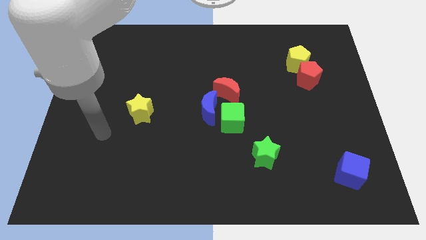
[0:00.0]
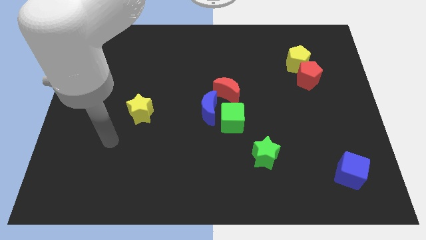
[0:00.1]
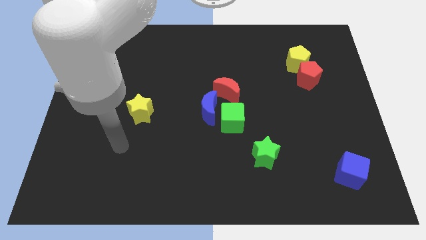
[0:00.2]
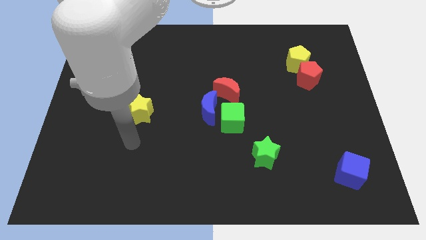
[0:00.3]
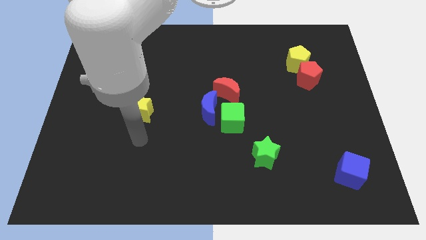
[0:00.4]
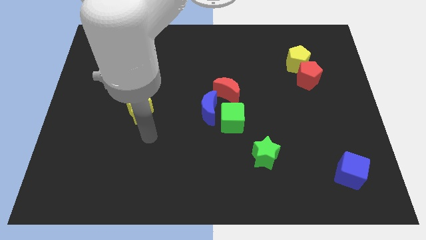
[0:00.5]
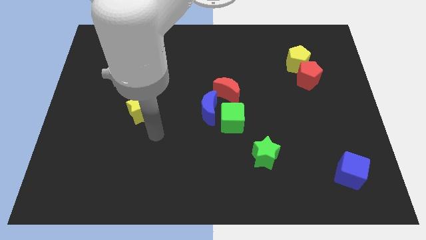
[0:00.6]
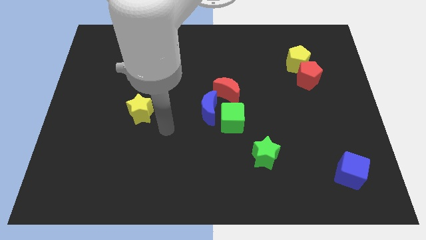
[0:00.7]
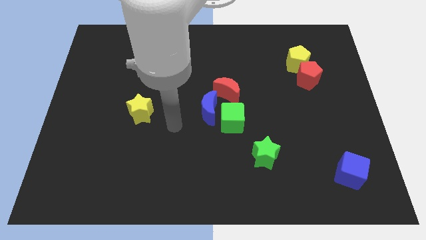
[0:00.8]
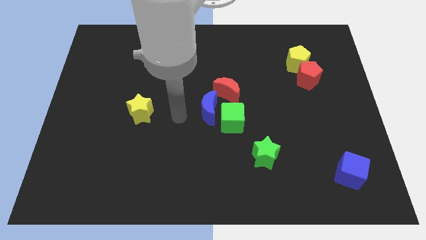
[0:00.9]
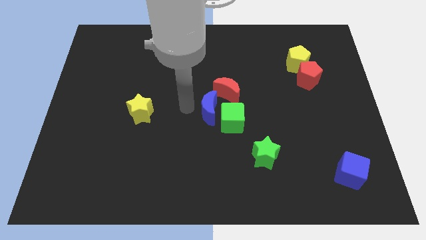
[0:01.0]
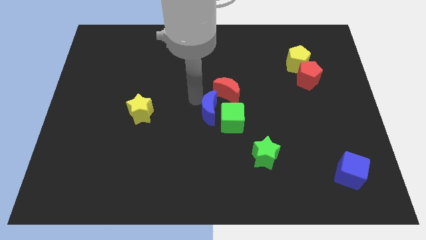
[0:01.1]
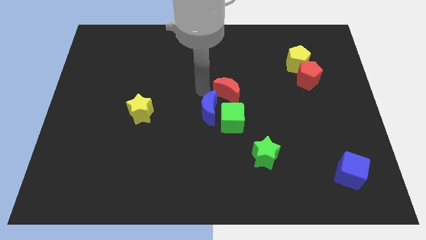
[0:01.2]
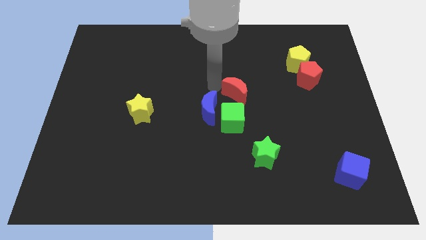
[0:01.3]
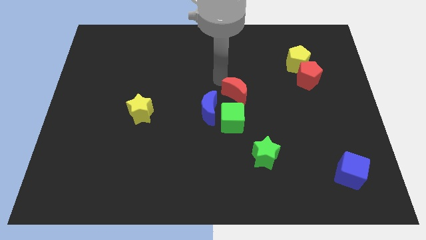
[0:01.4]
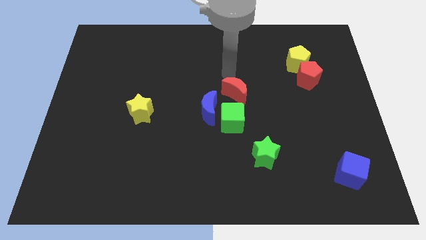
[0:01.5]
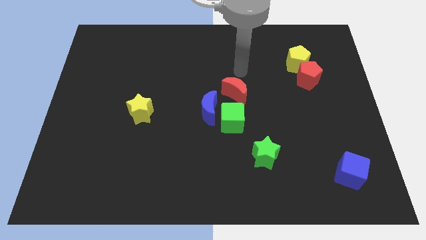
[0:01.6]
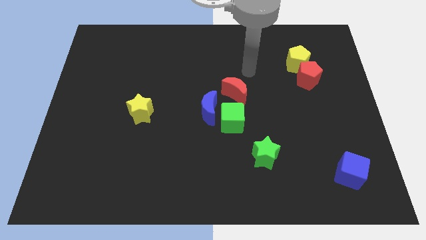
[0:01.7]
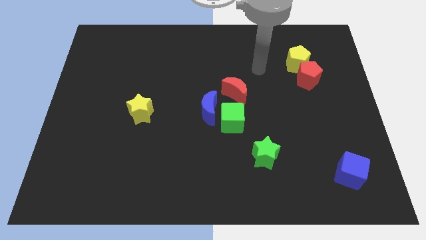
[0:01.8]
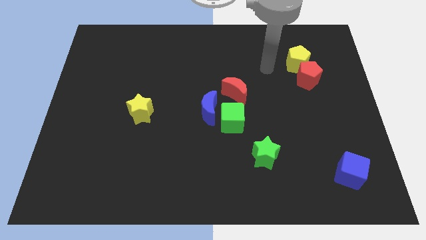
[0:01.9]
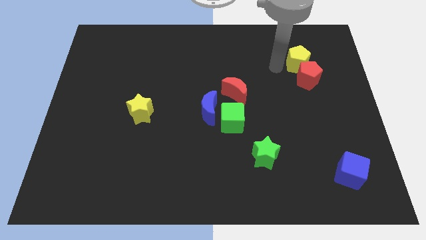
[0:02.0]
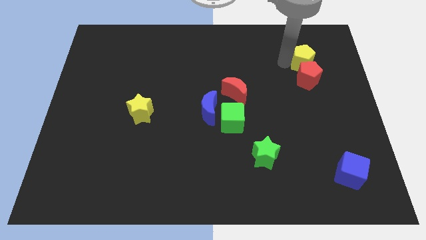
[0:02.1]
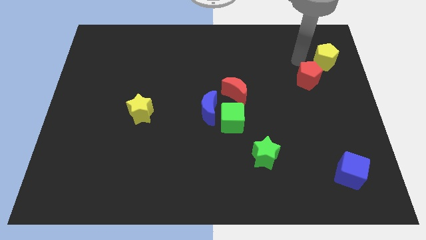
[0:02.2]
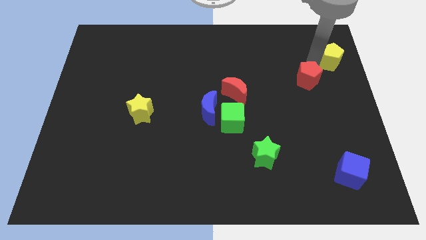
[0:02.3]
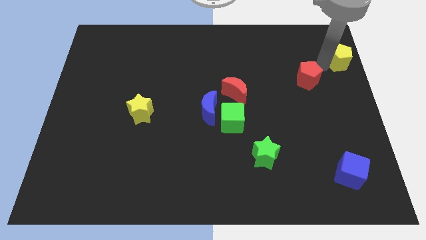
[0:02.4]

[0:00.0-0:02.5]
move the red pentagon away from the yellow pentagon

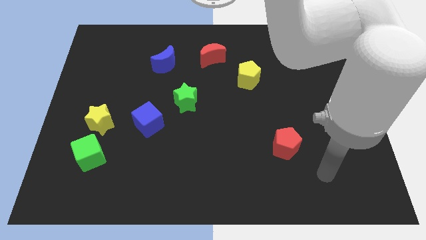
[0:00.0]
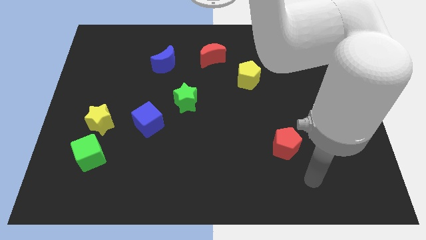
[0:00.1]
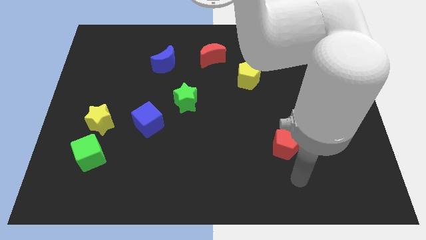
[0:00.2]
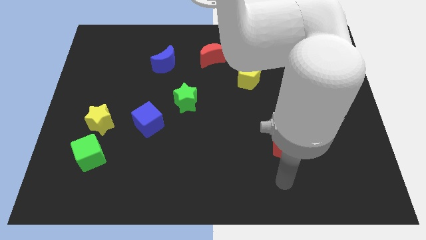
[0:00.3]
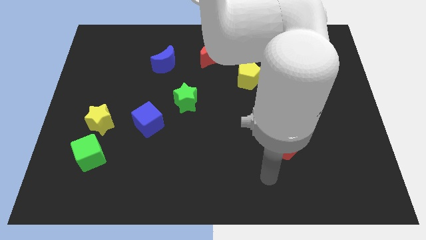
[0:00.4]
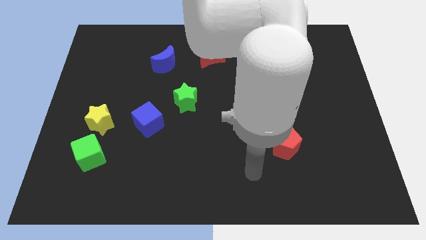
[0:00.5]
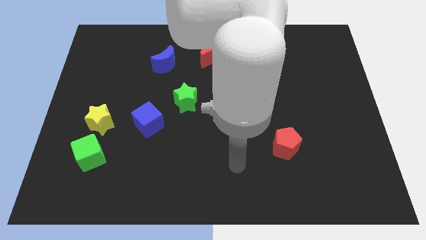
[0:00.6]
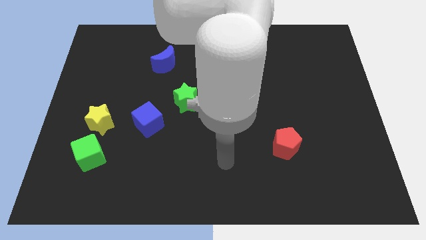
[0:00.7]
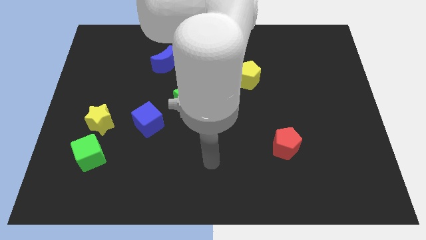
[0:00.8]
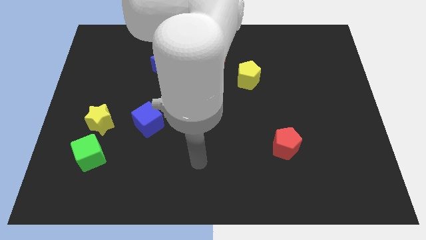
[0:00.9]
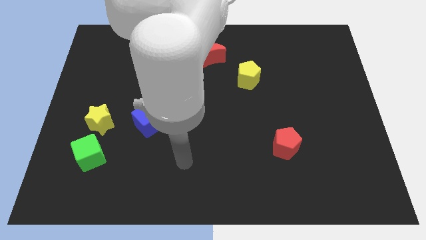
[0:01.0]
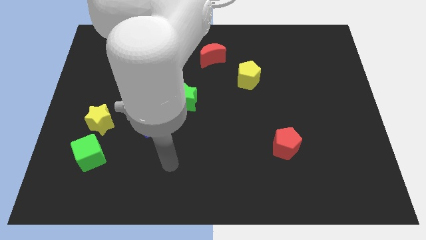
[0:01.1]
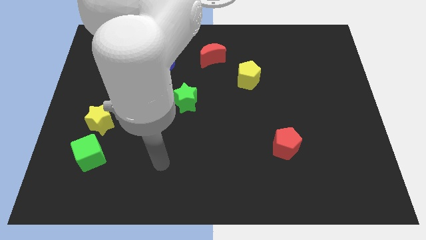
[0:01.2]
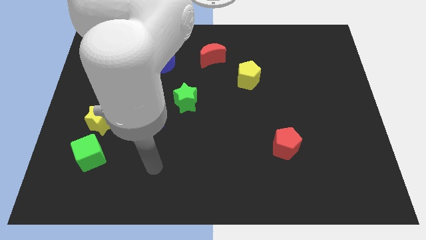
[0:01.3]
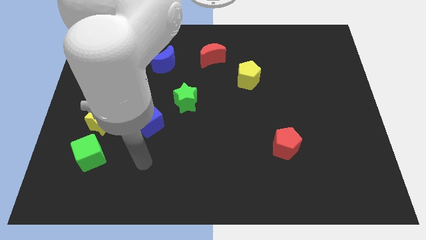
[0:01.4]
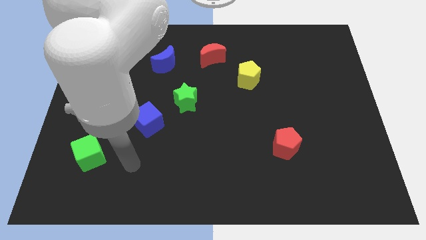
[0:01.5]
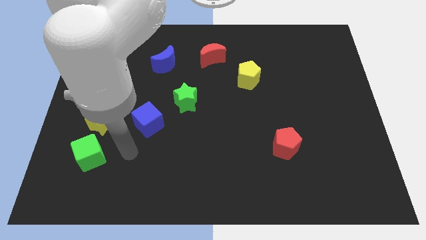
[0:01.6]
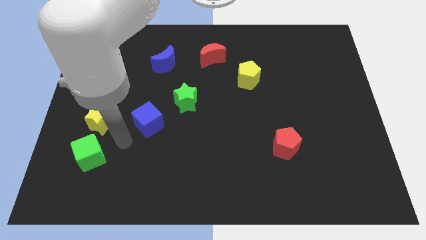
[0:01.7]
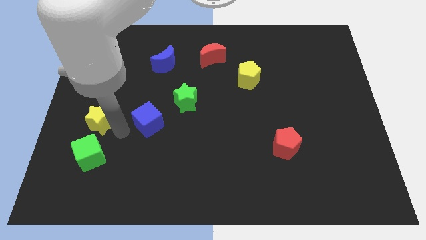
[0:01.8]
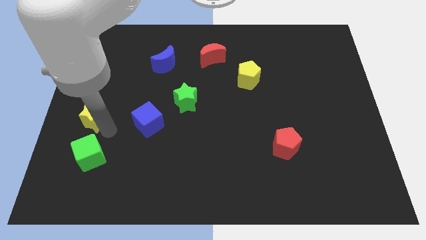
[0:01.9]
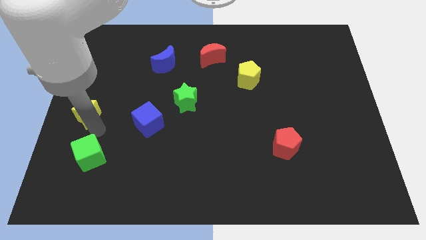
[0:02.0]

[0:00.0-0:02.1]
pull the green cube apart from the yellow star

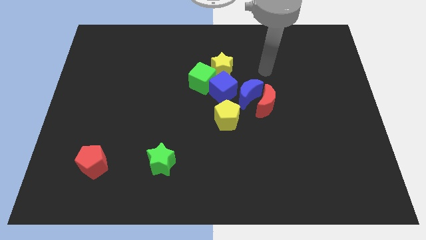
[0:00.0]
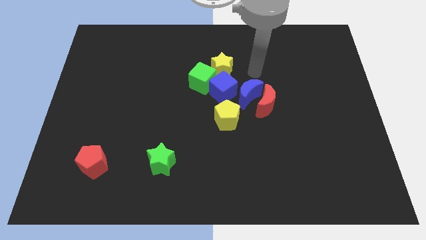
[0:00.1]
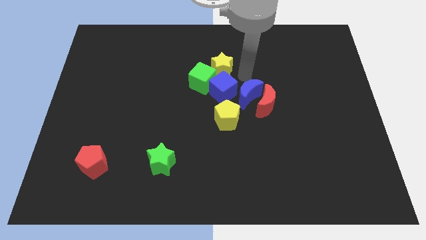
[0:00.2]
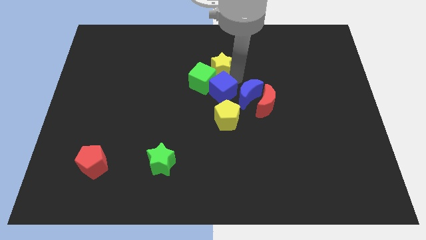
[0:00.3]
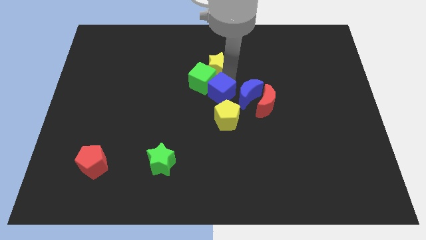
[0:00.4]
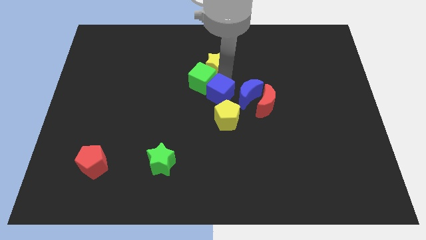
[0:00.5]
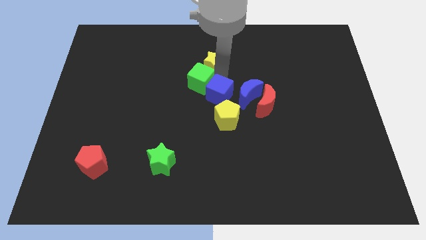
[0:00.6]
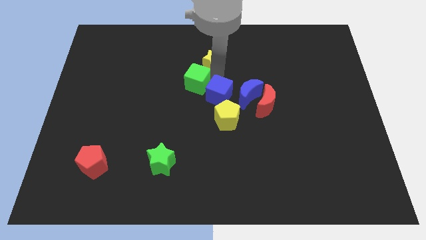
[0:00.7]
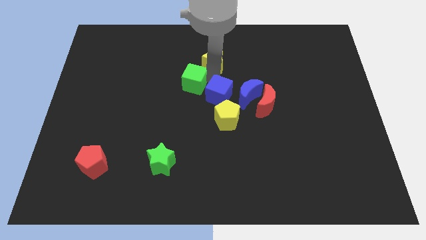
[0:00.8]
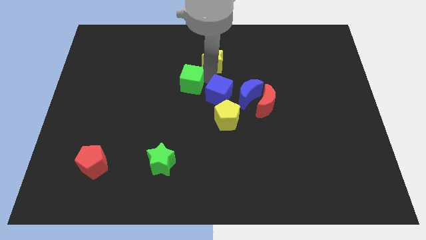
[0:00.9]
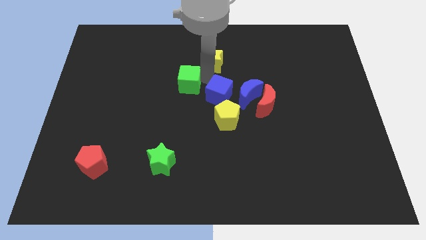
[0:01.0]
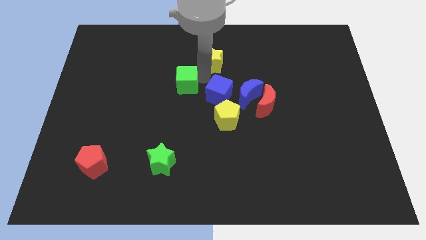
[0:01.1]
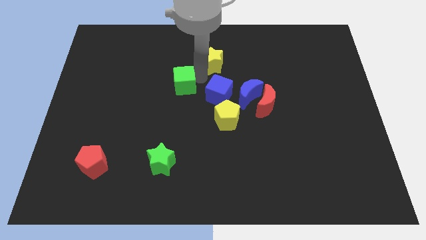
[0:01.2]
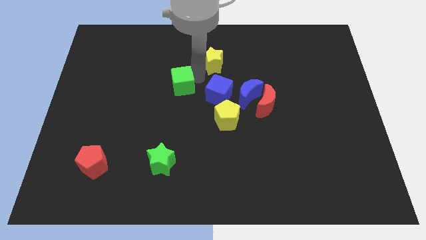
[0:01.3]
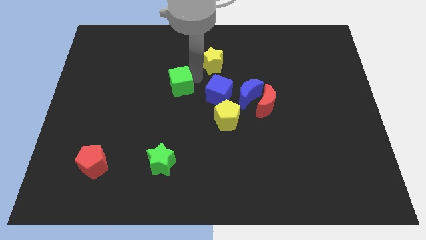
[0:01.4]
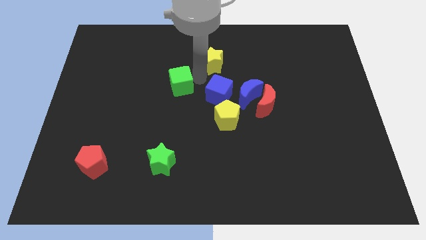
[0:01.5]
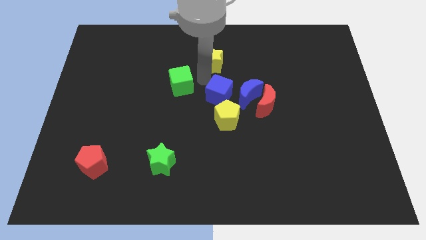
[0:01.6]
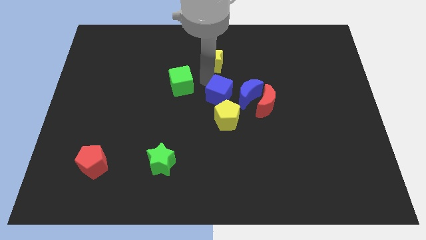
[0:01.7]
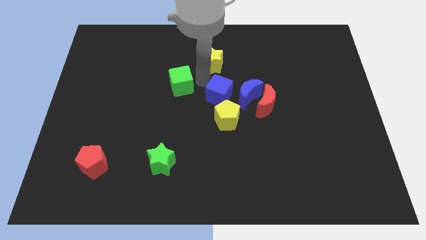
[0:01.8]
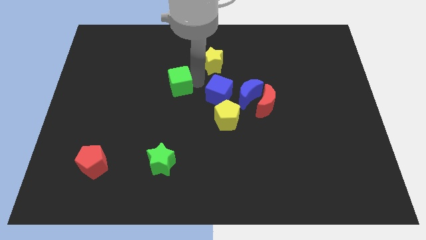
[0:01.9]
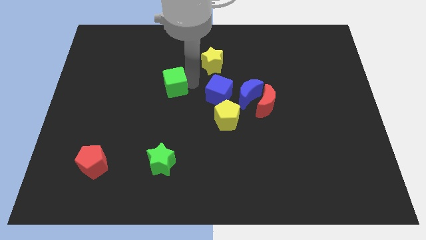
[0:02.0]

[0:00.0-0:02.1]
move the green cube away from the blue cube and yellow star

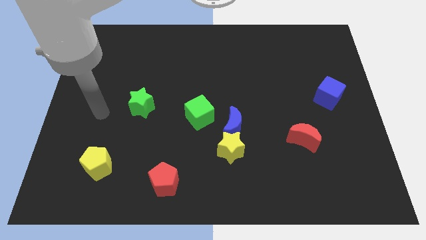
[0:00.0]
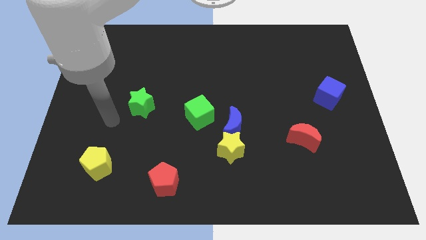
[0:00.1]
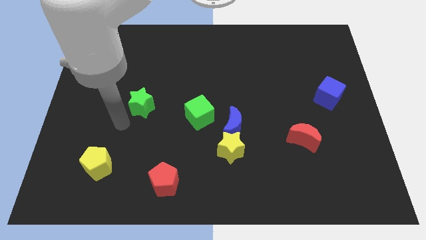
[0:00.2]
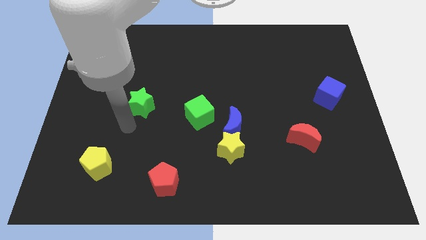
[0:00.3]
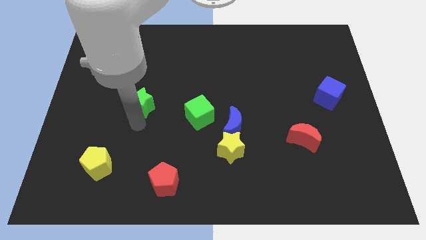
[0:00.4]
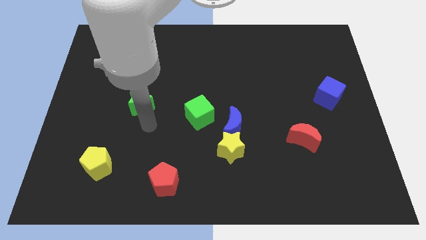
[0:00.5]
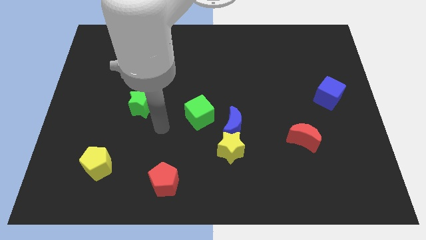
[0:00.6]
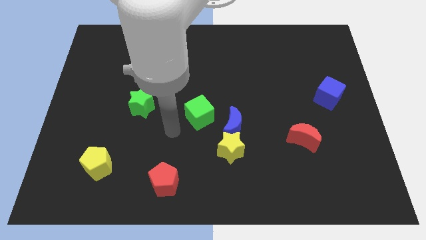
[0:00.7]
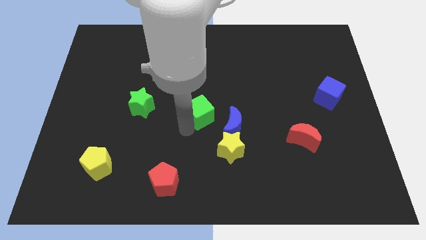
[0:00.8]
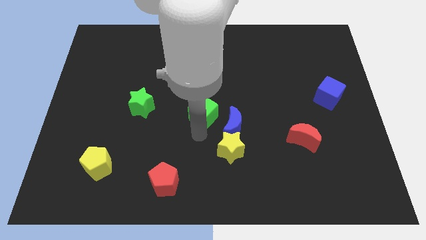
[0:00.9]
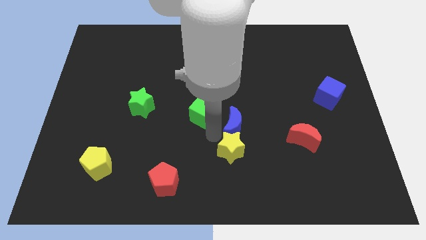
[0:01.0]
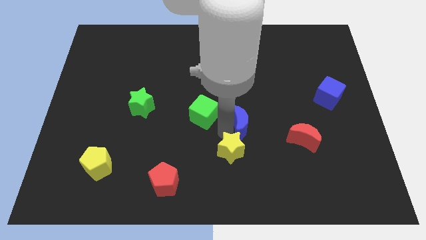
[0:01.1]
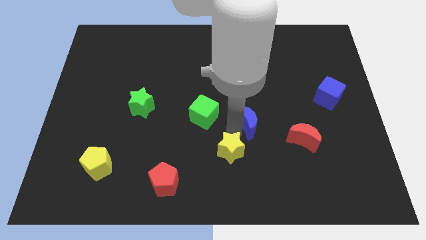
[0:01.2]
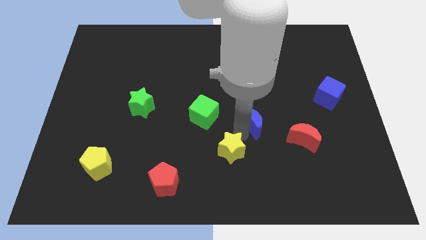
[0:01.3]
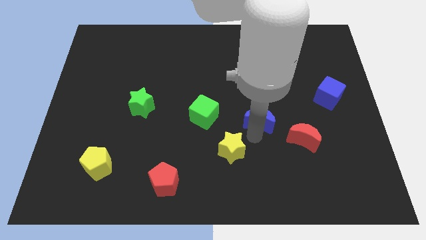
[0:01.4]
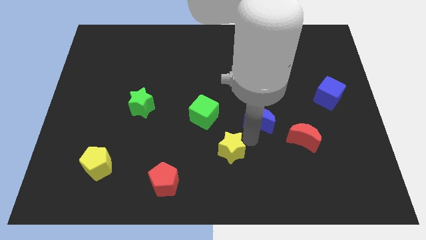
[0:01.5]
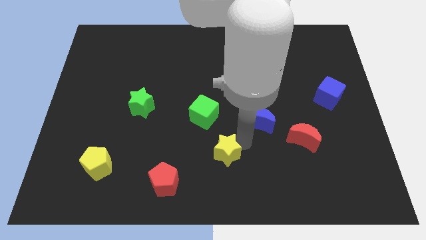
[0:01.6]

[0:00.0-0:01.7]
pull the yellow star apart from the blue moon

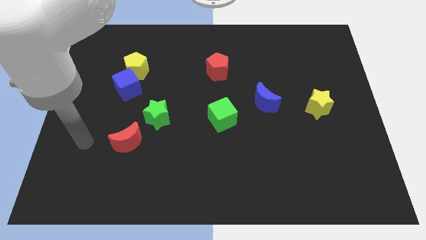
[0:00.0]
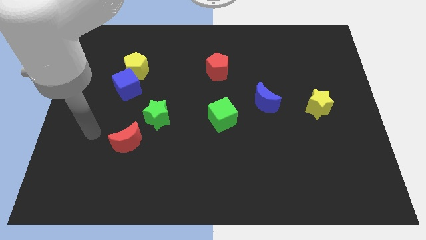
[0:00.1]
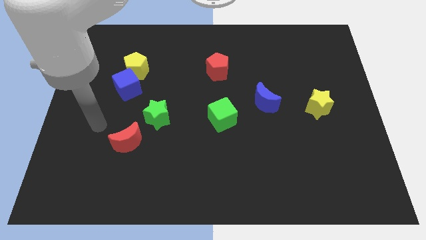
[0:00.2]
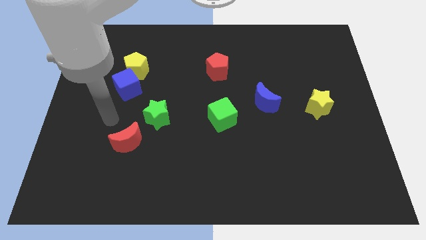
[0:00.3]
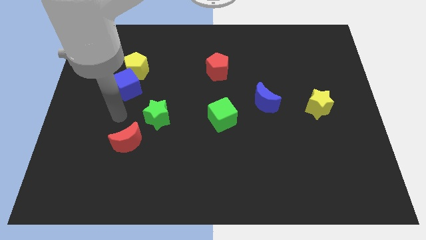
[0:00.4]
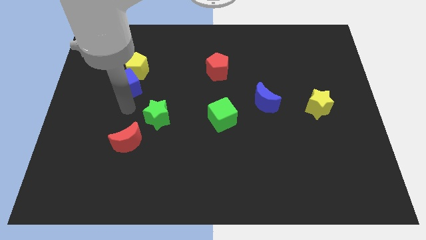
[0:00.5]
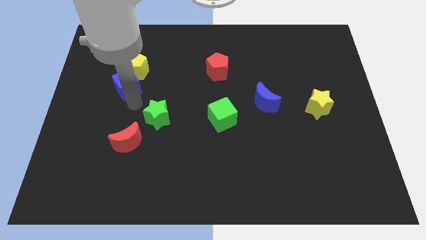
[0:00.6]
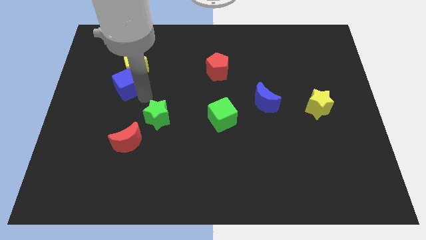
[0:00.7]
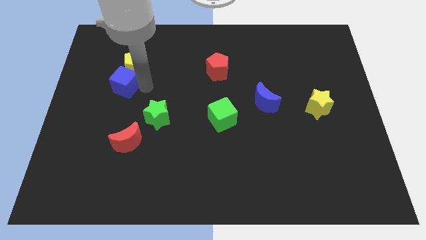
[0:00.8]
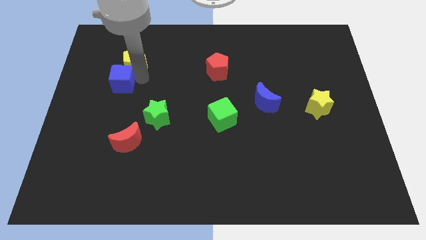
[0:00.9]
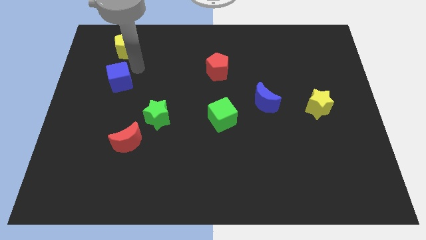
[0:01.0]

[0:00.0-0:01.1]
separate the blue cube from the yellow pentagon

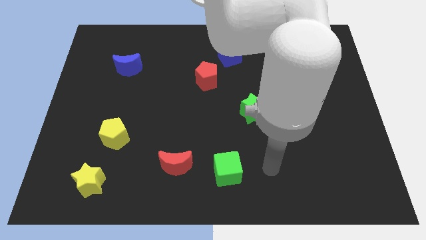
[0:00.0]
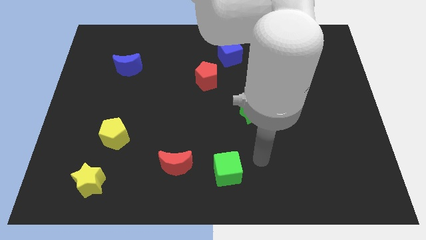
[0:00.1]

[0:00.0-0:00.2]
separate the red pentagon from the blue cube
